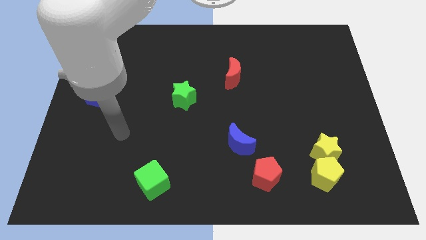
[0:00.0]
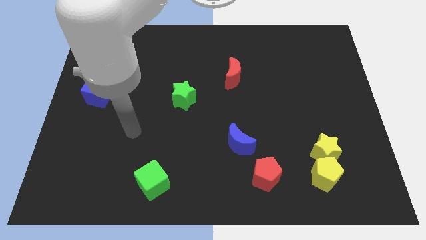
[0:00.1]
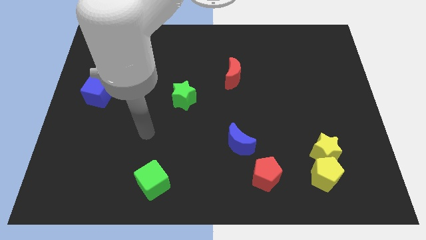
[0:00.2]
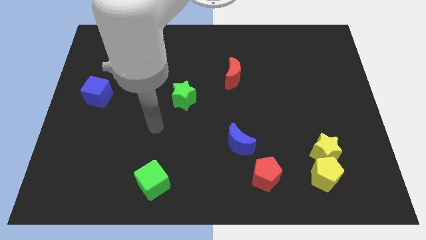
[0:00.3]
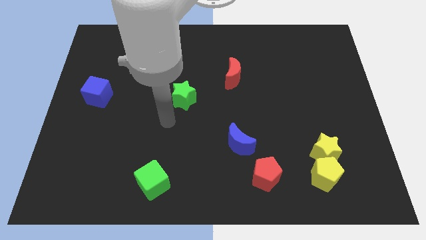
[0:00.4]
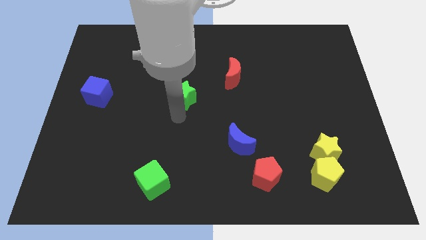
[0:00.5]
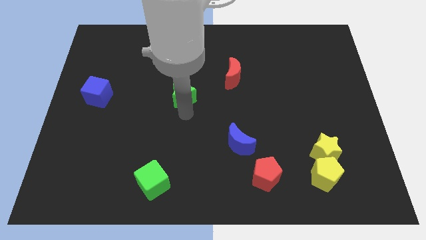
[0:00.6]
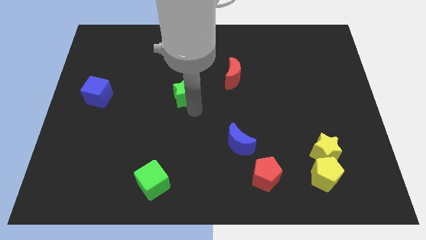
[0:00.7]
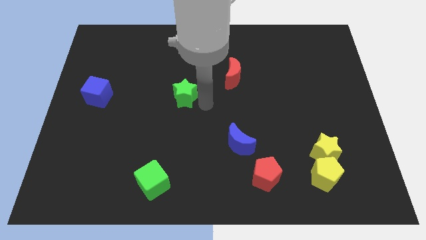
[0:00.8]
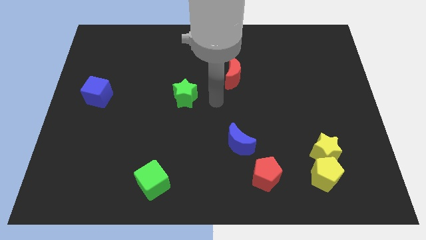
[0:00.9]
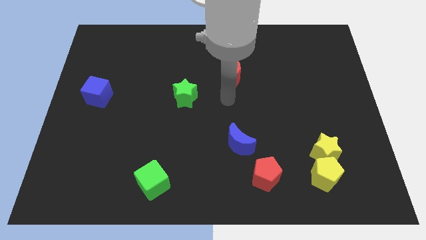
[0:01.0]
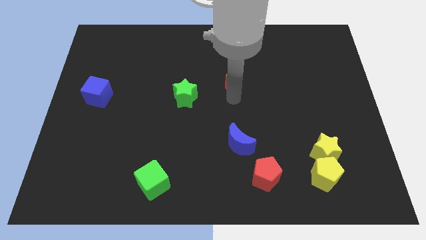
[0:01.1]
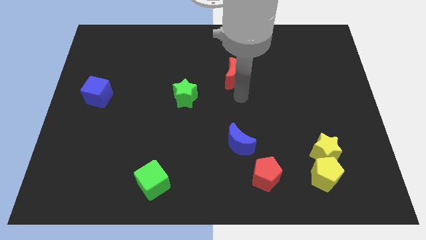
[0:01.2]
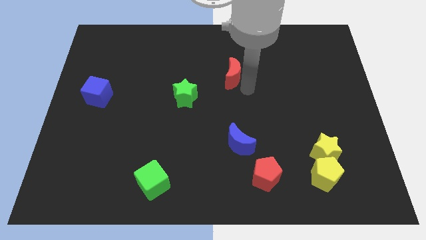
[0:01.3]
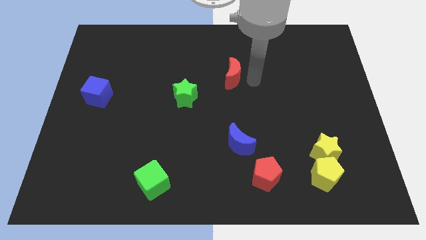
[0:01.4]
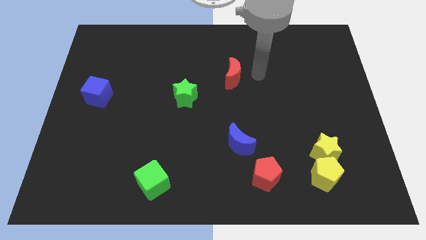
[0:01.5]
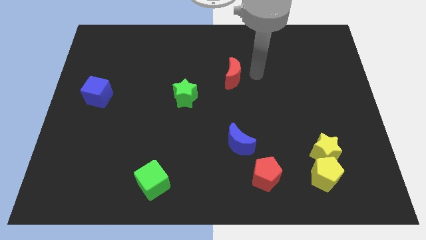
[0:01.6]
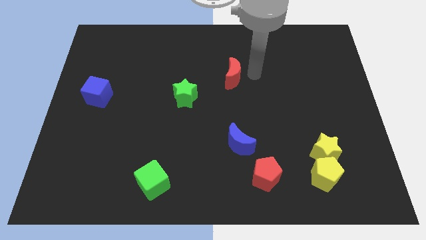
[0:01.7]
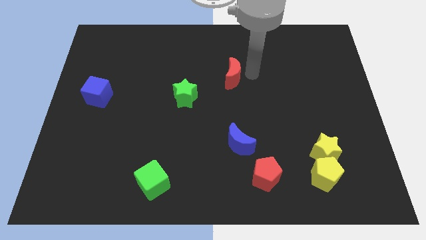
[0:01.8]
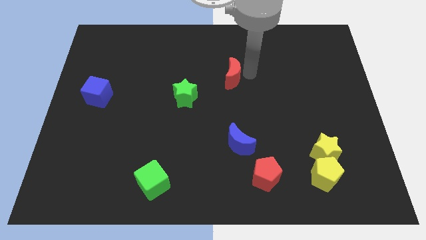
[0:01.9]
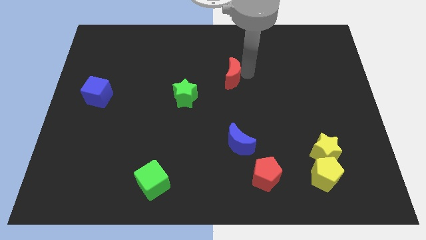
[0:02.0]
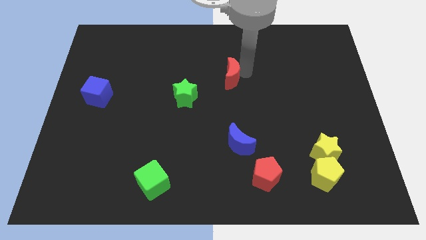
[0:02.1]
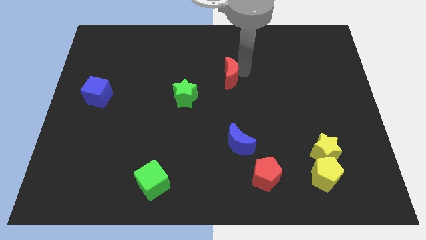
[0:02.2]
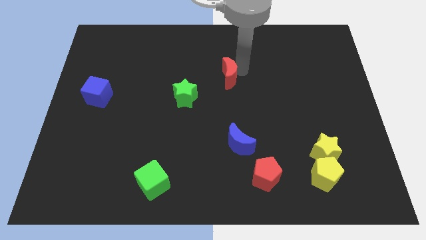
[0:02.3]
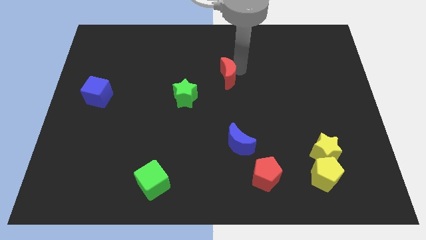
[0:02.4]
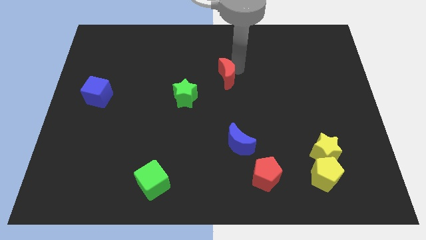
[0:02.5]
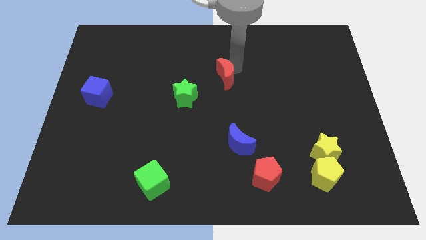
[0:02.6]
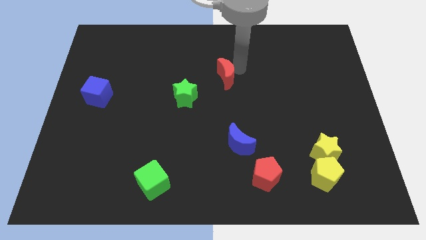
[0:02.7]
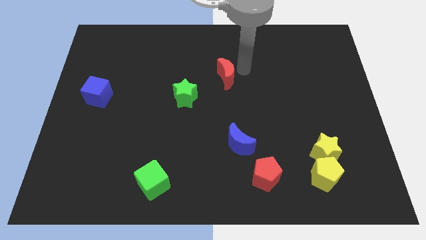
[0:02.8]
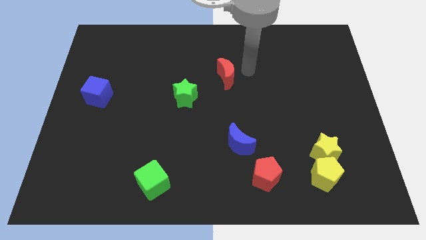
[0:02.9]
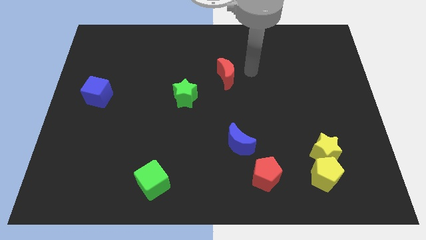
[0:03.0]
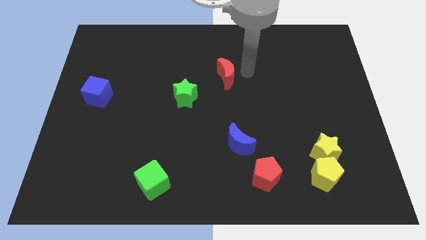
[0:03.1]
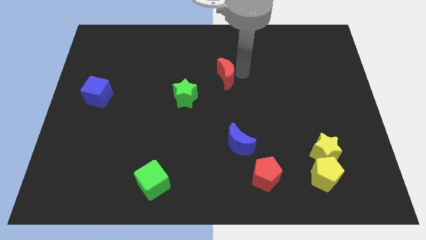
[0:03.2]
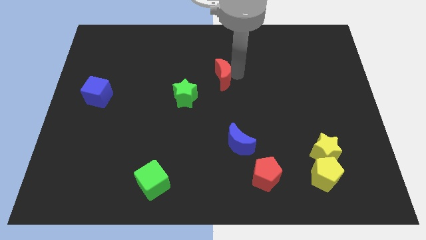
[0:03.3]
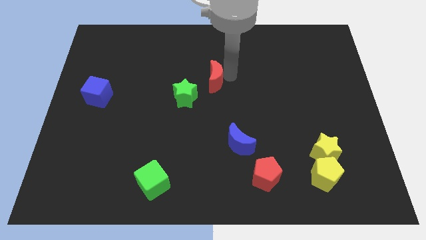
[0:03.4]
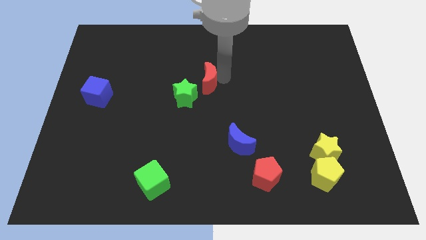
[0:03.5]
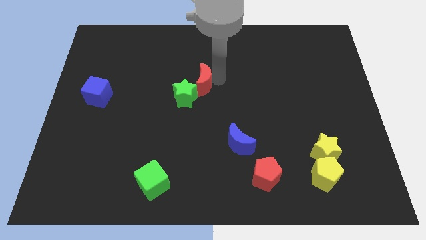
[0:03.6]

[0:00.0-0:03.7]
slightly move the red moon to the left

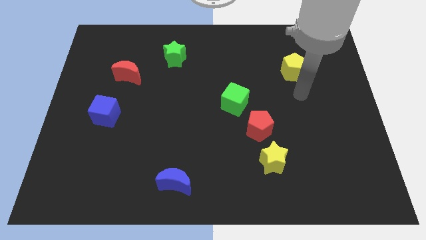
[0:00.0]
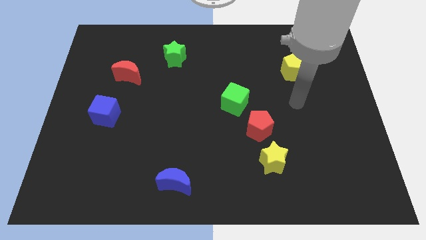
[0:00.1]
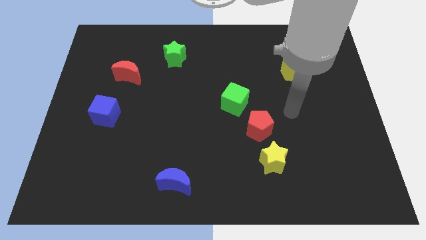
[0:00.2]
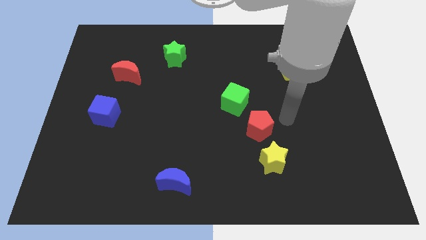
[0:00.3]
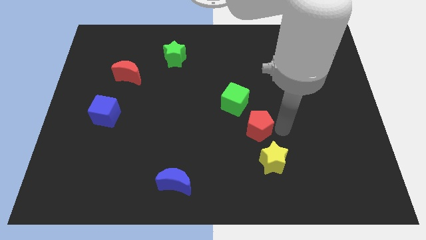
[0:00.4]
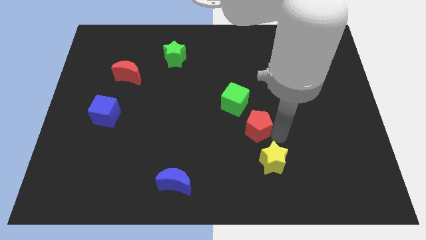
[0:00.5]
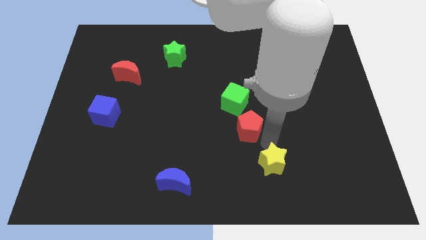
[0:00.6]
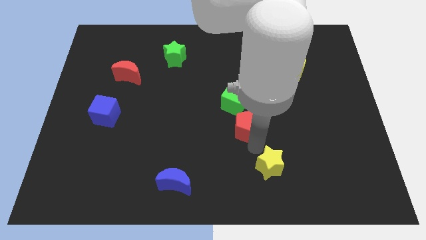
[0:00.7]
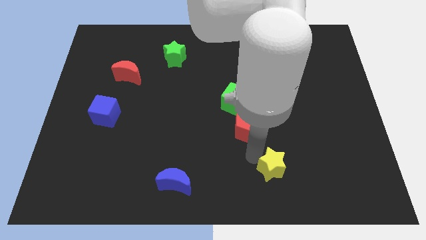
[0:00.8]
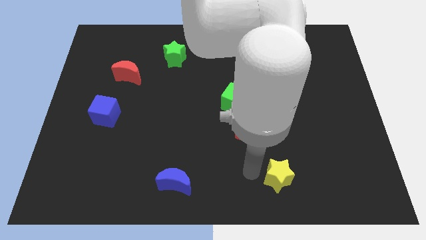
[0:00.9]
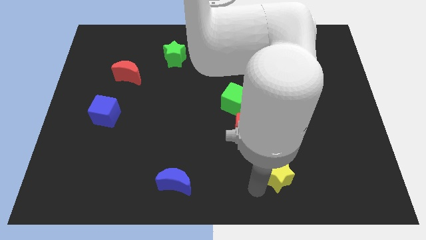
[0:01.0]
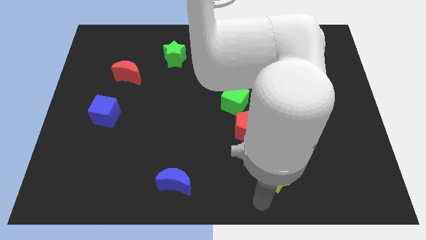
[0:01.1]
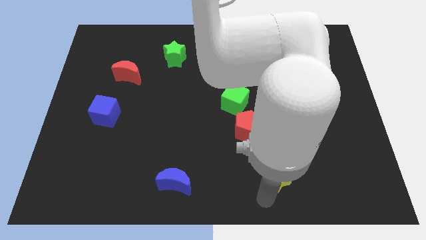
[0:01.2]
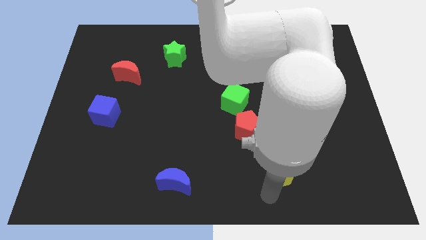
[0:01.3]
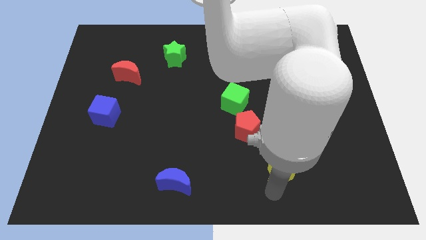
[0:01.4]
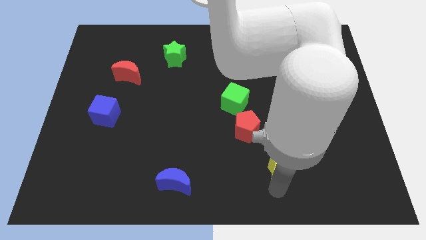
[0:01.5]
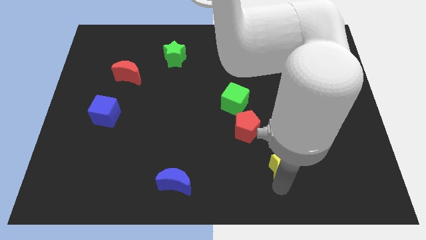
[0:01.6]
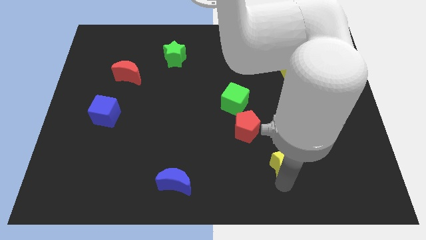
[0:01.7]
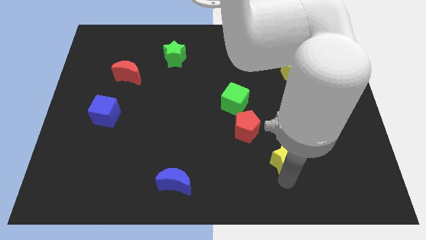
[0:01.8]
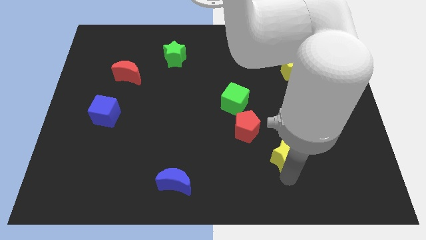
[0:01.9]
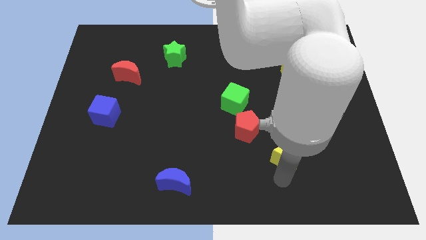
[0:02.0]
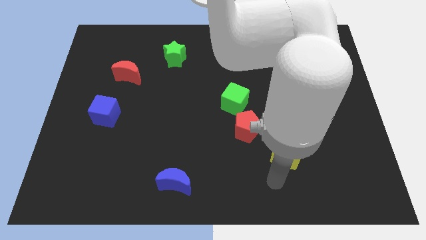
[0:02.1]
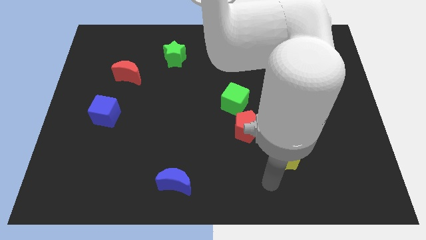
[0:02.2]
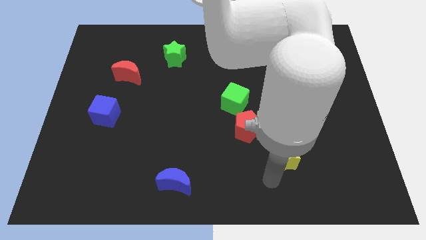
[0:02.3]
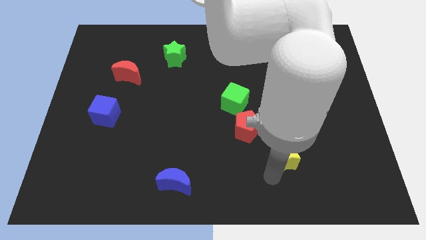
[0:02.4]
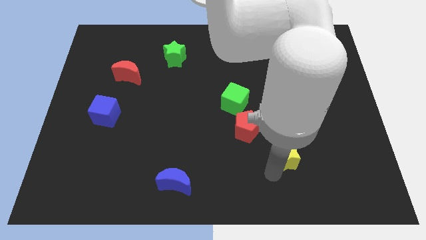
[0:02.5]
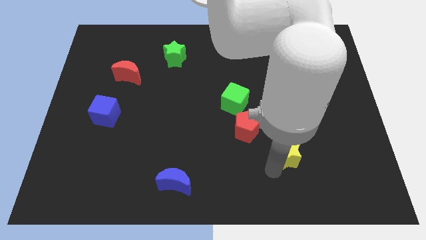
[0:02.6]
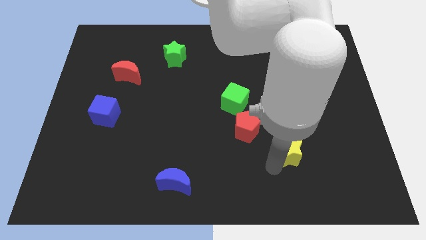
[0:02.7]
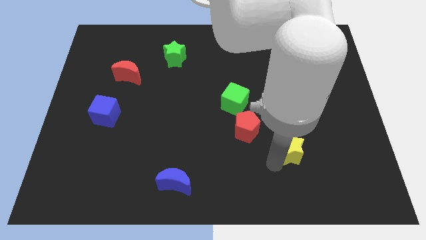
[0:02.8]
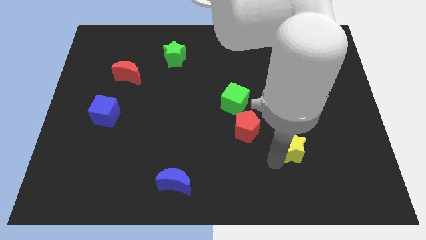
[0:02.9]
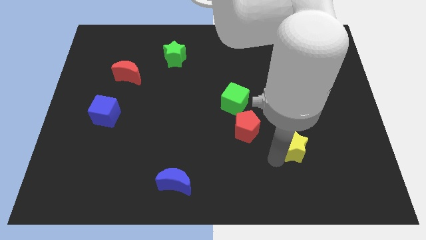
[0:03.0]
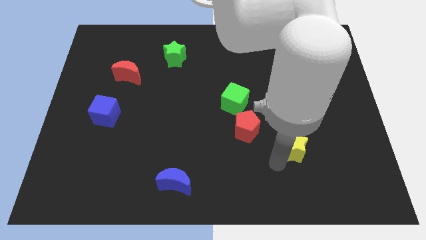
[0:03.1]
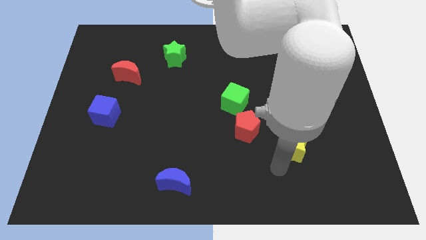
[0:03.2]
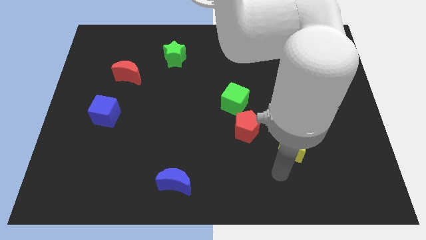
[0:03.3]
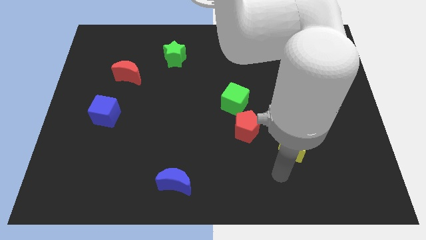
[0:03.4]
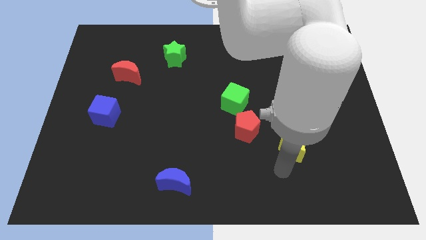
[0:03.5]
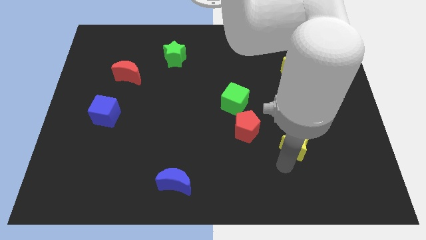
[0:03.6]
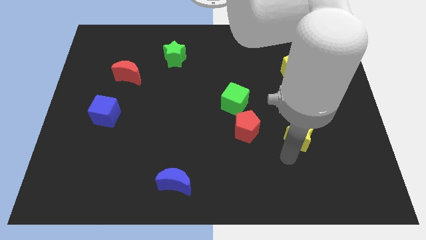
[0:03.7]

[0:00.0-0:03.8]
slide the yellow star upwards and to the right diagonally slightly
